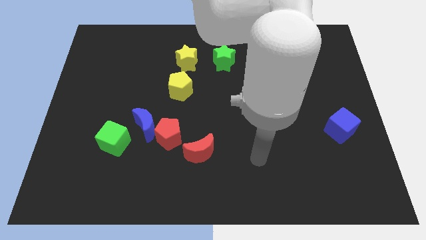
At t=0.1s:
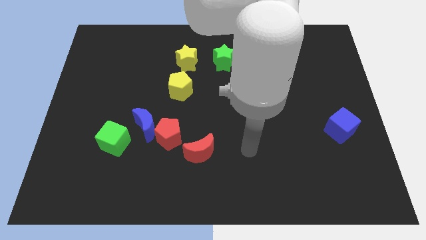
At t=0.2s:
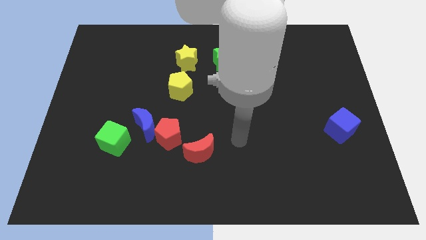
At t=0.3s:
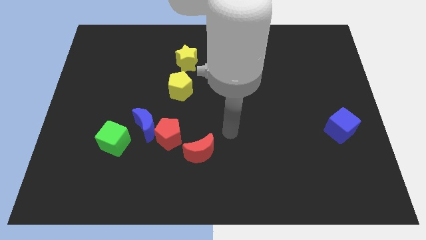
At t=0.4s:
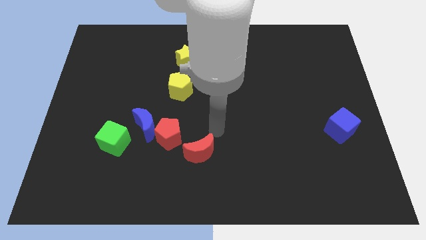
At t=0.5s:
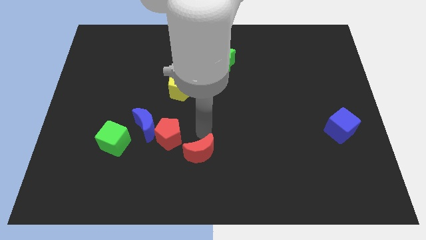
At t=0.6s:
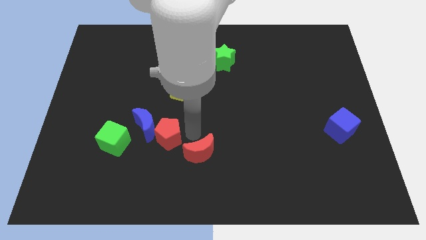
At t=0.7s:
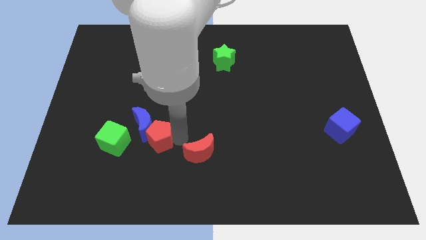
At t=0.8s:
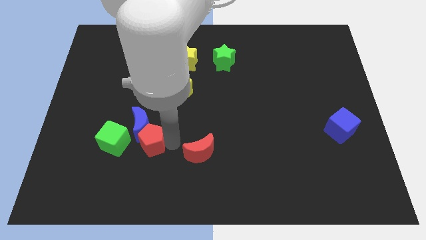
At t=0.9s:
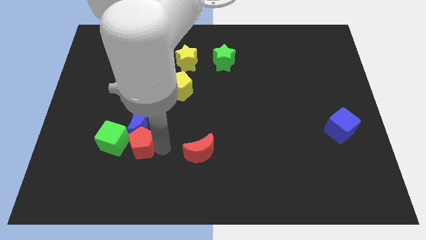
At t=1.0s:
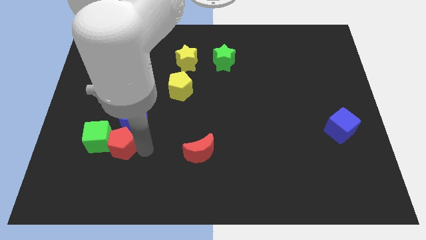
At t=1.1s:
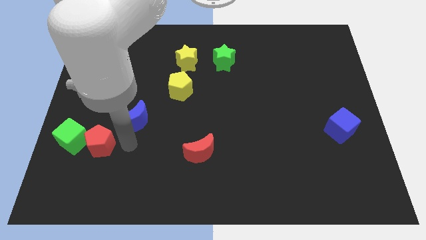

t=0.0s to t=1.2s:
move the blue moon away from the red pentagon and green cube

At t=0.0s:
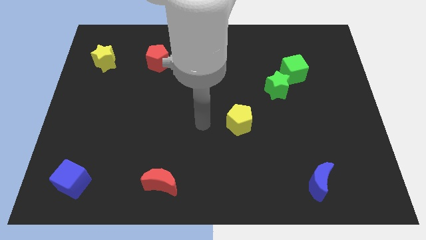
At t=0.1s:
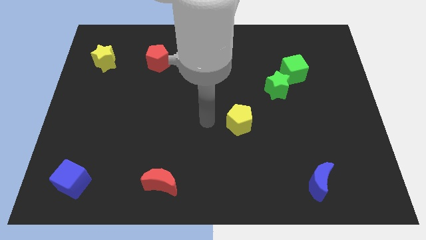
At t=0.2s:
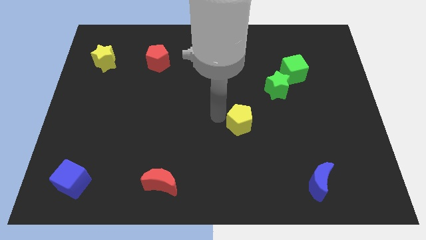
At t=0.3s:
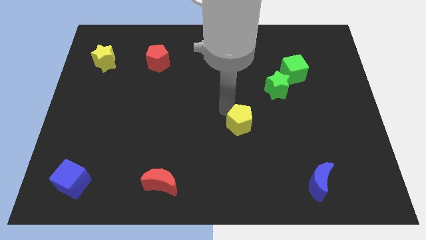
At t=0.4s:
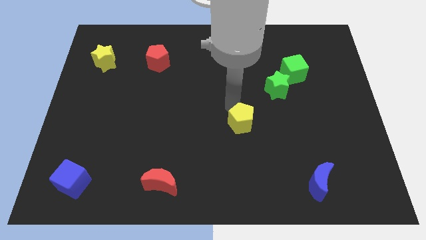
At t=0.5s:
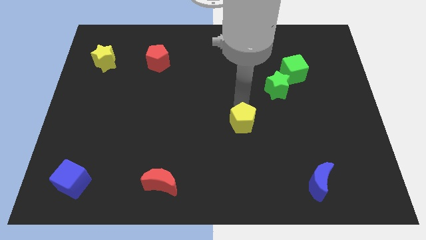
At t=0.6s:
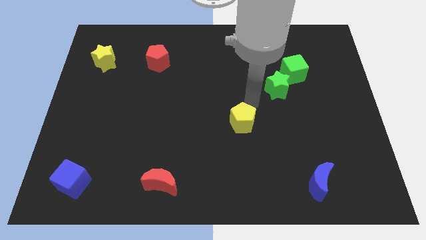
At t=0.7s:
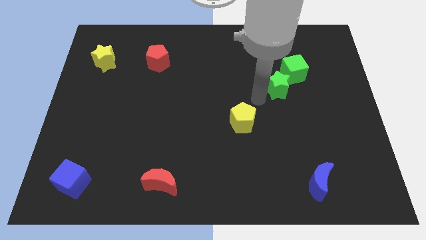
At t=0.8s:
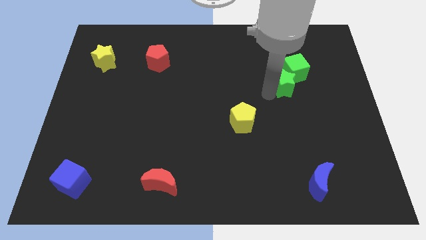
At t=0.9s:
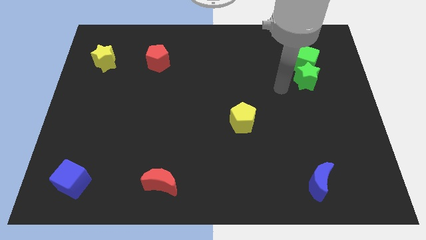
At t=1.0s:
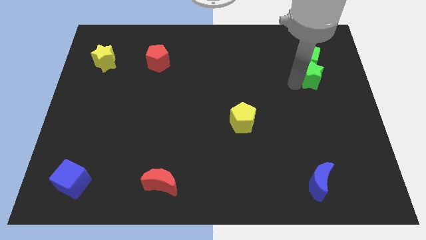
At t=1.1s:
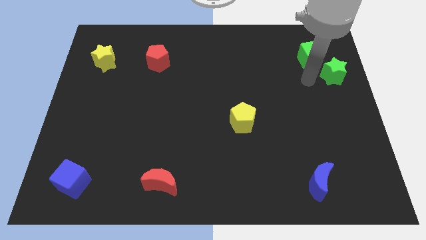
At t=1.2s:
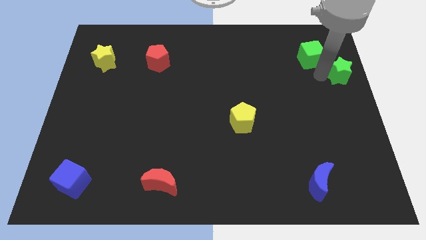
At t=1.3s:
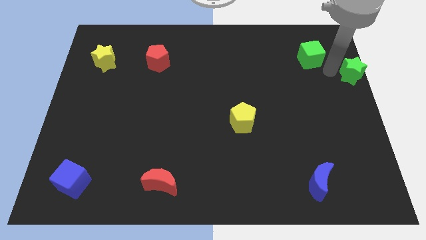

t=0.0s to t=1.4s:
pull the green cube apart from the green star

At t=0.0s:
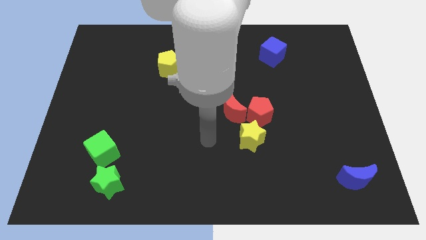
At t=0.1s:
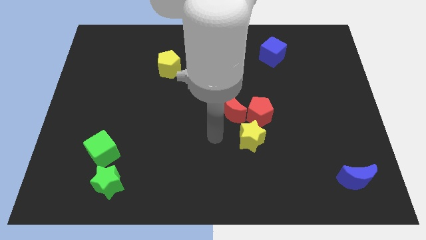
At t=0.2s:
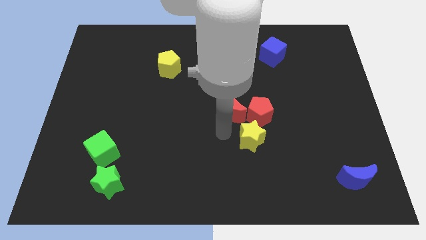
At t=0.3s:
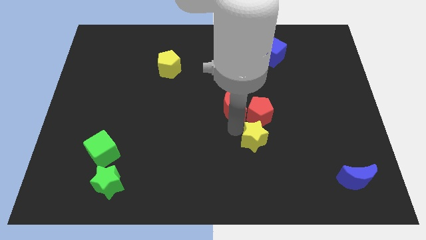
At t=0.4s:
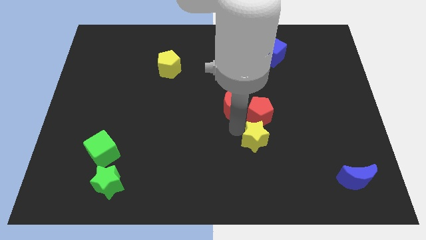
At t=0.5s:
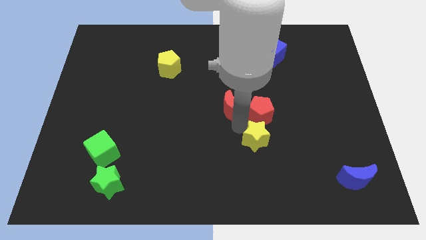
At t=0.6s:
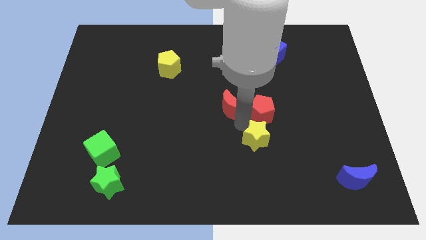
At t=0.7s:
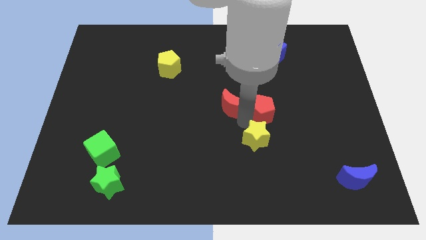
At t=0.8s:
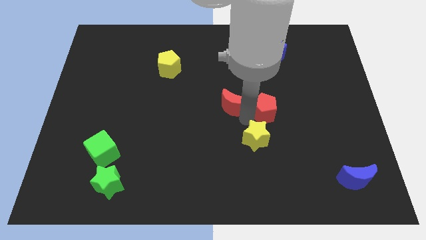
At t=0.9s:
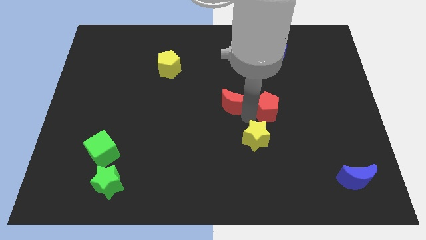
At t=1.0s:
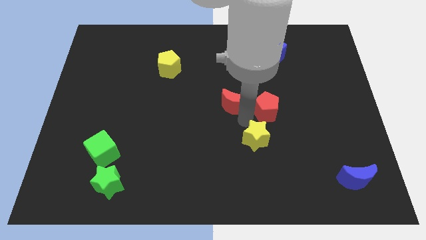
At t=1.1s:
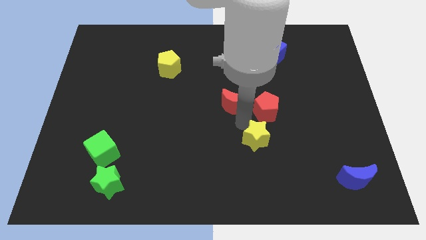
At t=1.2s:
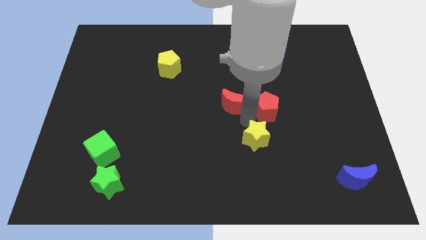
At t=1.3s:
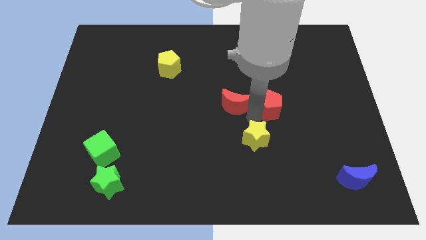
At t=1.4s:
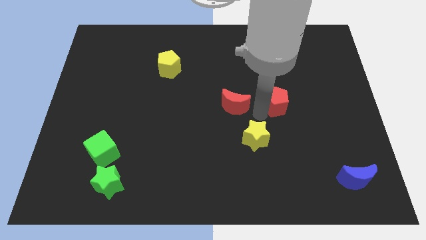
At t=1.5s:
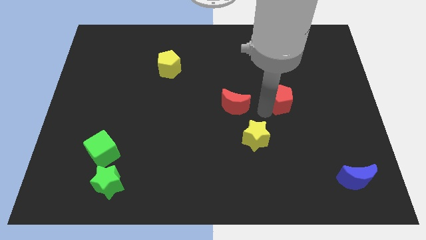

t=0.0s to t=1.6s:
move the red pentagon away from the red moon and yellow star

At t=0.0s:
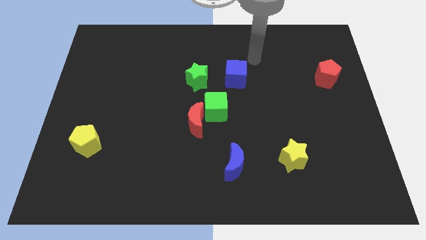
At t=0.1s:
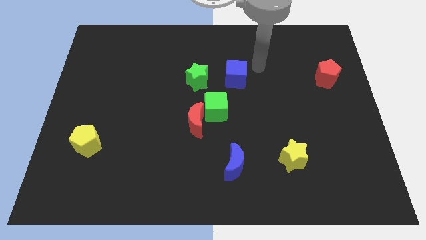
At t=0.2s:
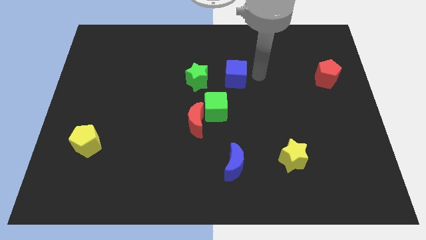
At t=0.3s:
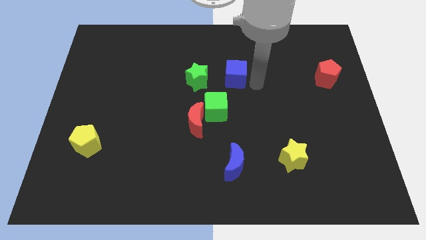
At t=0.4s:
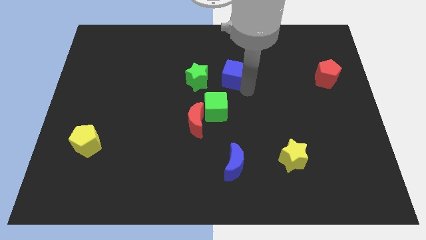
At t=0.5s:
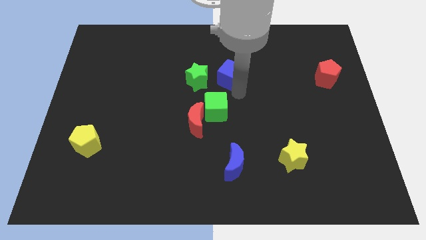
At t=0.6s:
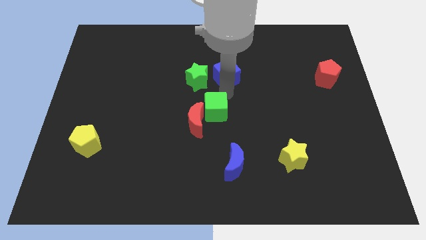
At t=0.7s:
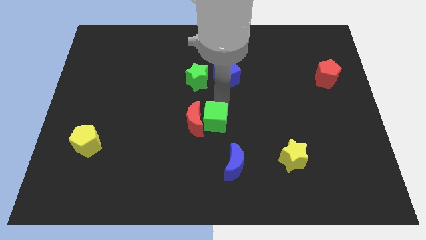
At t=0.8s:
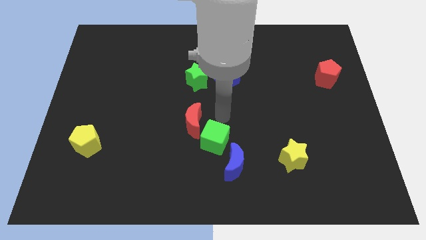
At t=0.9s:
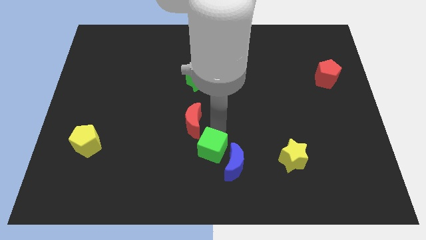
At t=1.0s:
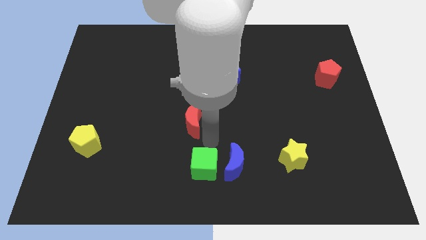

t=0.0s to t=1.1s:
separate the red moon from the green cube

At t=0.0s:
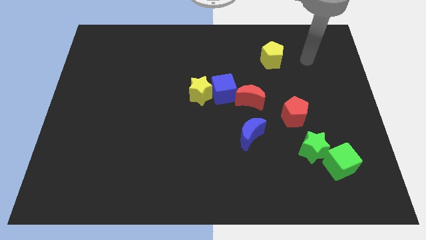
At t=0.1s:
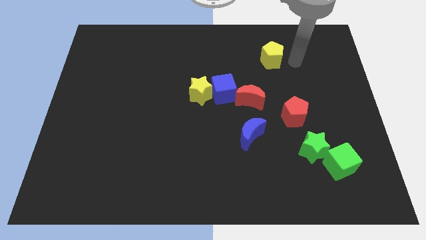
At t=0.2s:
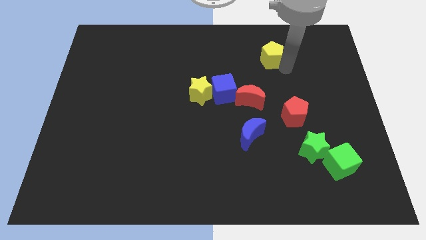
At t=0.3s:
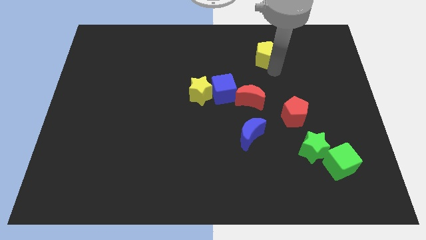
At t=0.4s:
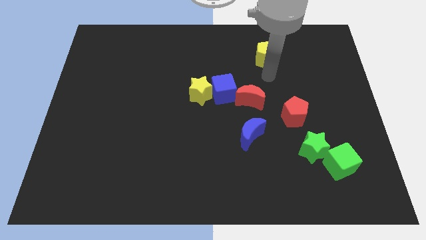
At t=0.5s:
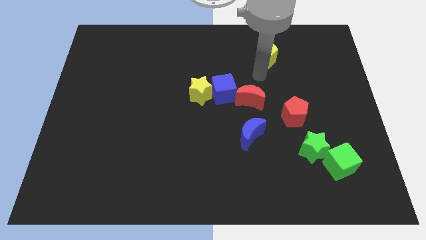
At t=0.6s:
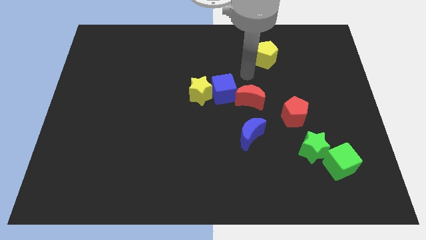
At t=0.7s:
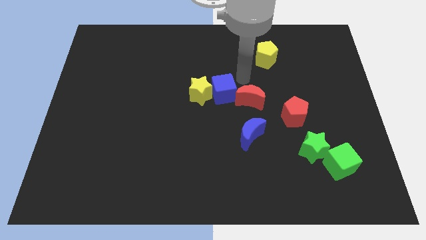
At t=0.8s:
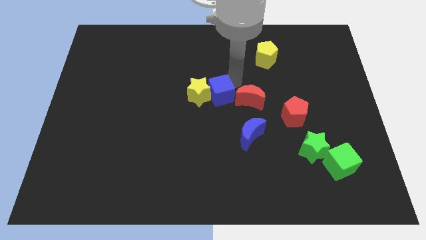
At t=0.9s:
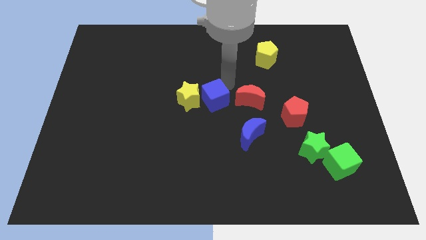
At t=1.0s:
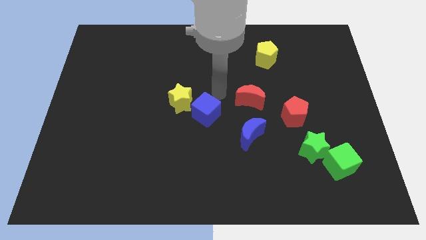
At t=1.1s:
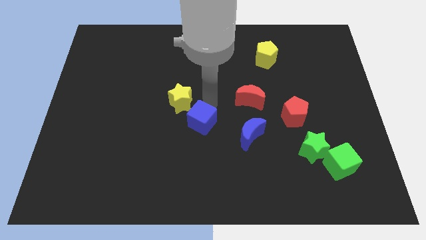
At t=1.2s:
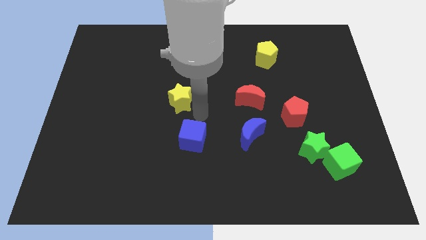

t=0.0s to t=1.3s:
move the yellow star away from the blue cube

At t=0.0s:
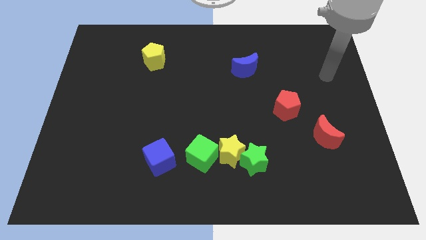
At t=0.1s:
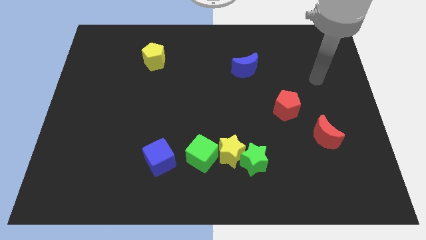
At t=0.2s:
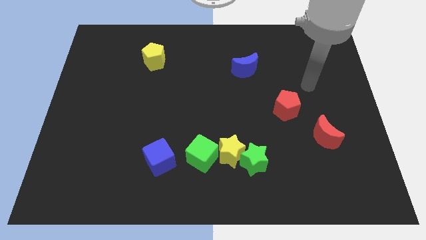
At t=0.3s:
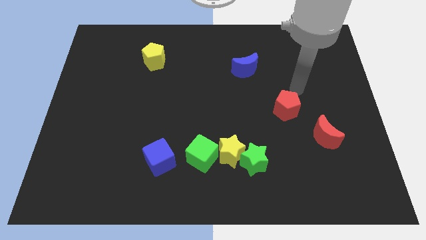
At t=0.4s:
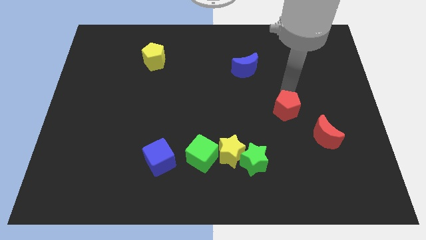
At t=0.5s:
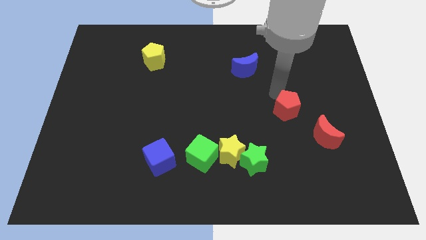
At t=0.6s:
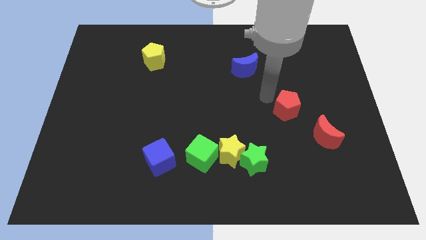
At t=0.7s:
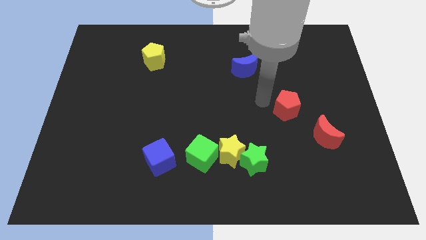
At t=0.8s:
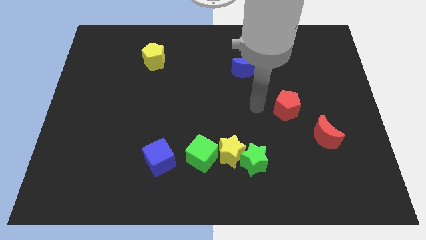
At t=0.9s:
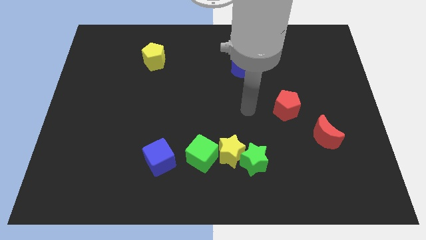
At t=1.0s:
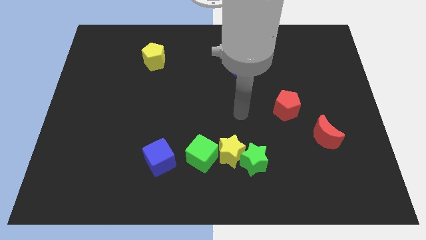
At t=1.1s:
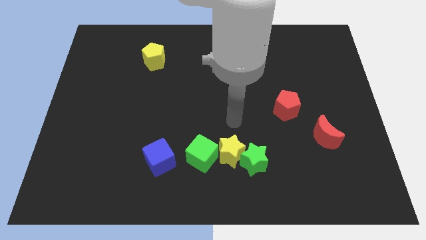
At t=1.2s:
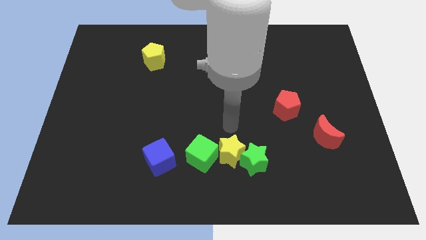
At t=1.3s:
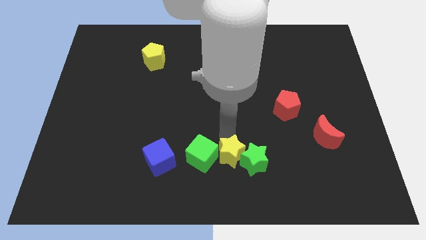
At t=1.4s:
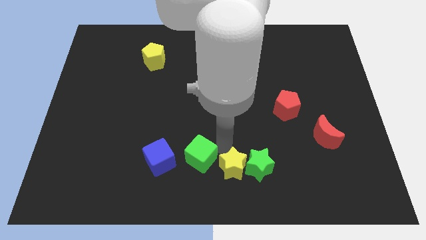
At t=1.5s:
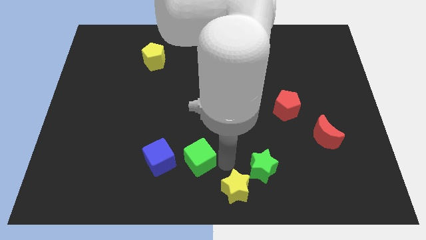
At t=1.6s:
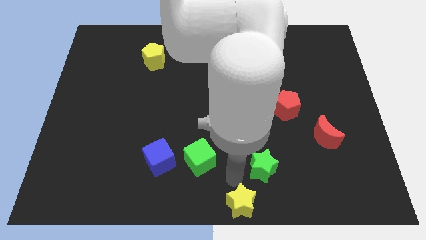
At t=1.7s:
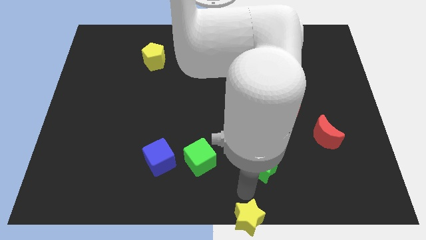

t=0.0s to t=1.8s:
pull the green star apart from the yellow star

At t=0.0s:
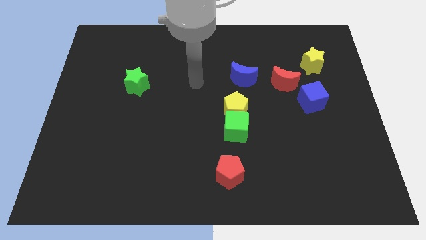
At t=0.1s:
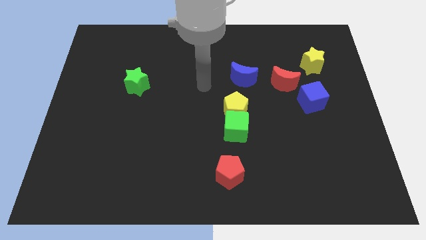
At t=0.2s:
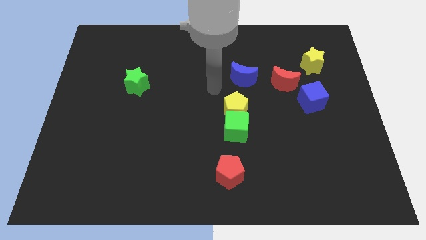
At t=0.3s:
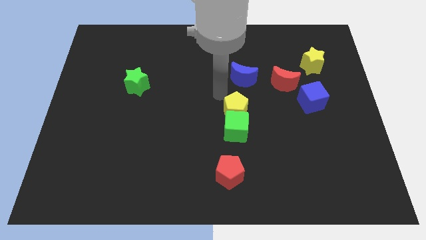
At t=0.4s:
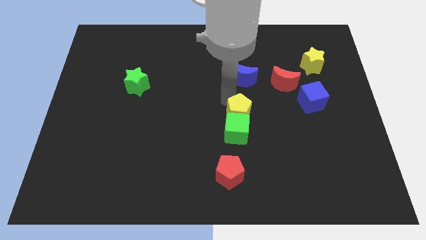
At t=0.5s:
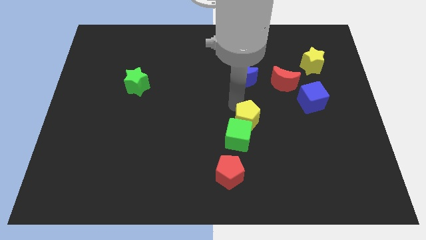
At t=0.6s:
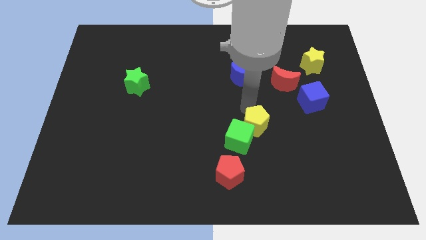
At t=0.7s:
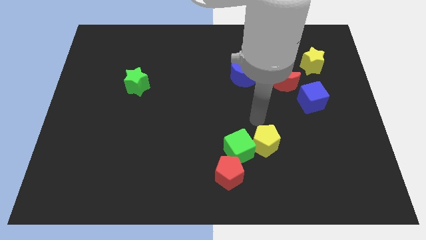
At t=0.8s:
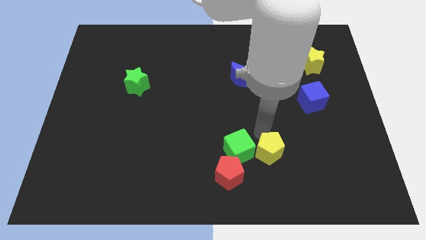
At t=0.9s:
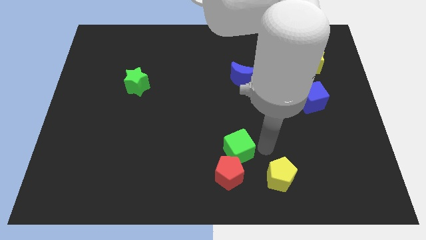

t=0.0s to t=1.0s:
separate the green cube from the yellow pentagon
